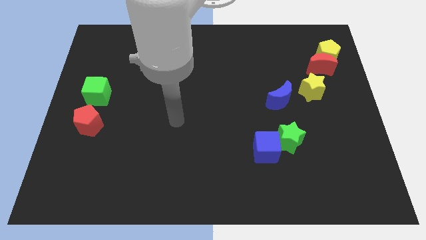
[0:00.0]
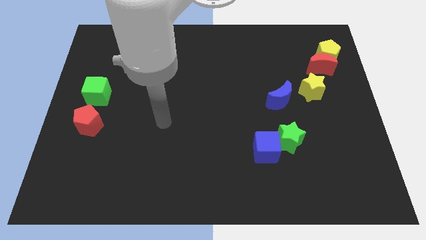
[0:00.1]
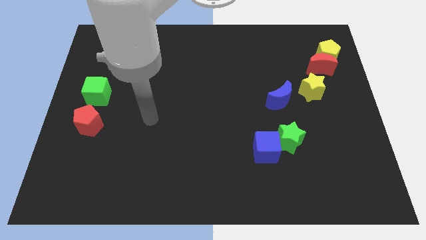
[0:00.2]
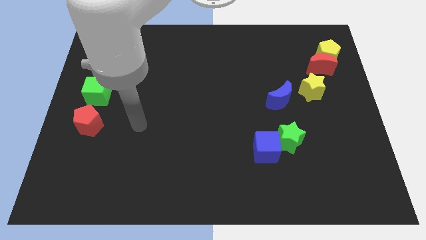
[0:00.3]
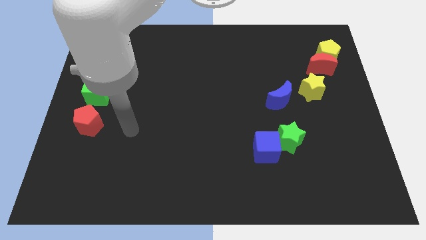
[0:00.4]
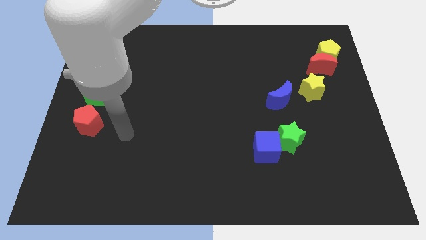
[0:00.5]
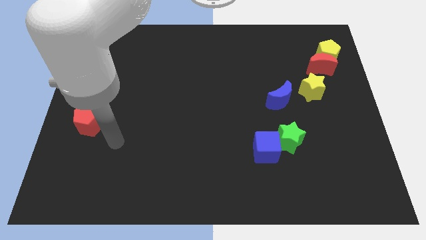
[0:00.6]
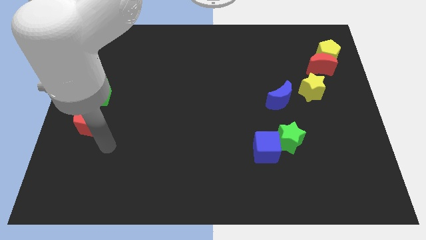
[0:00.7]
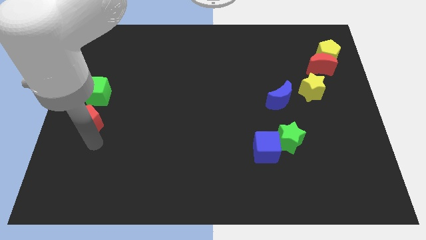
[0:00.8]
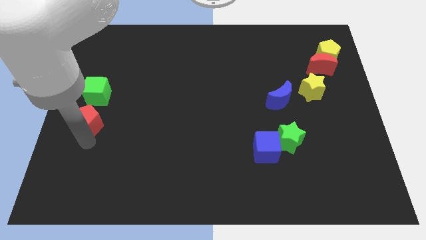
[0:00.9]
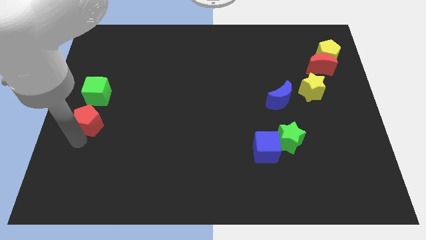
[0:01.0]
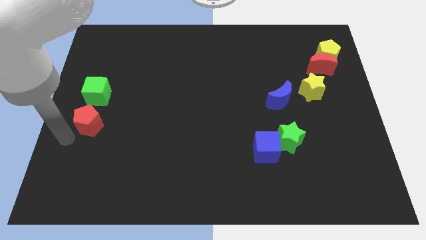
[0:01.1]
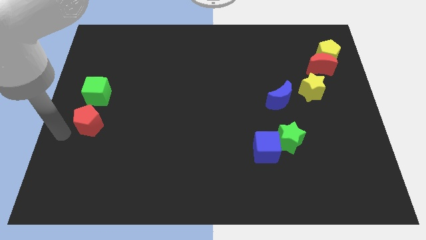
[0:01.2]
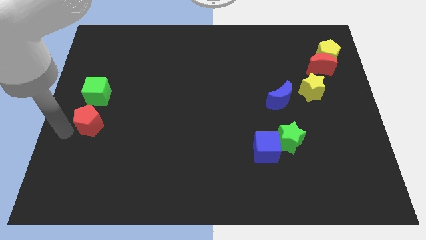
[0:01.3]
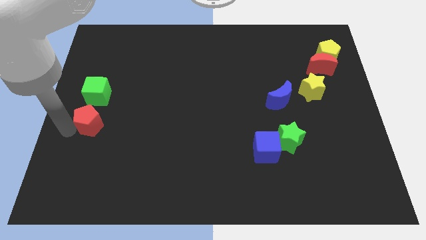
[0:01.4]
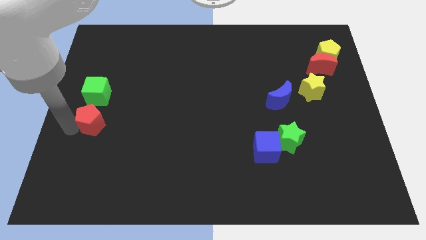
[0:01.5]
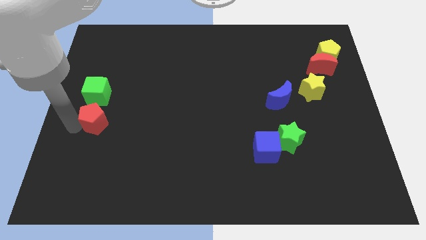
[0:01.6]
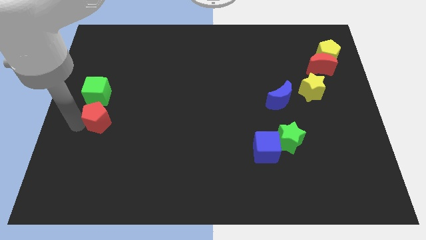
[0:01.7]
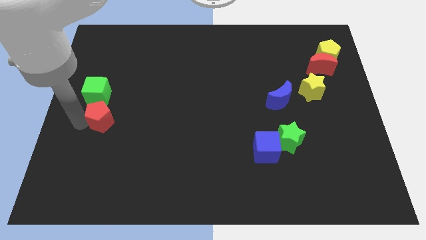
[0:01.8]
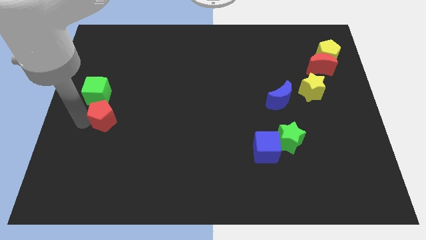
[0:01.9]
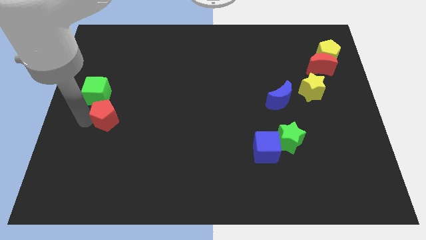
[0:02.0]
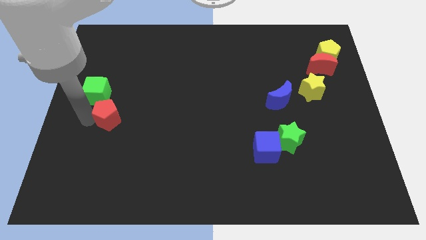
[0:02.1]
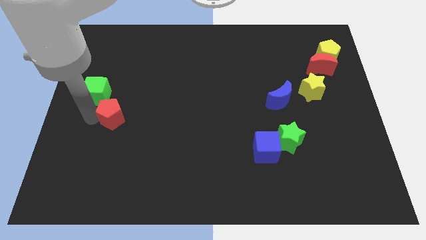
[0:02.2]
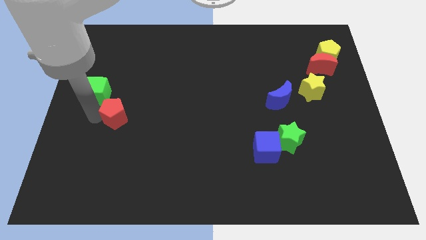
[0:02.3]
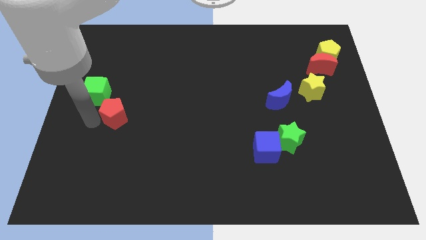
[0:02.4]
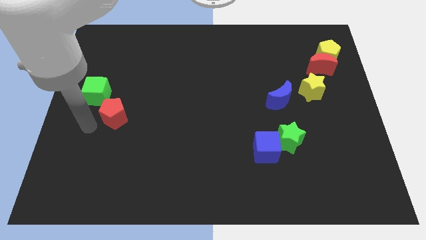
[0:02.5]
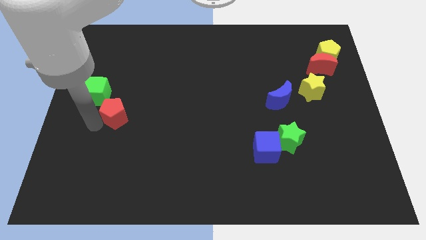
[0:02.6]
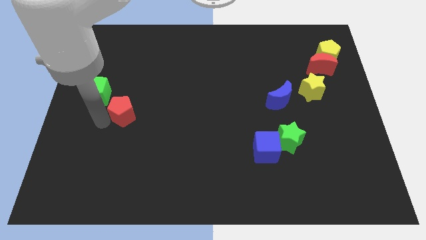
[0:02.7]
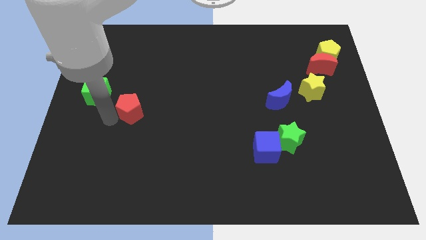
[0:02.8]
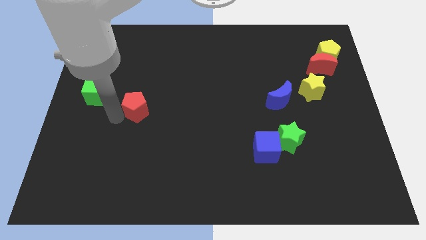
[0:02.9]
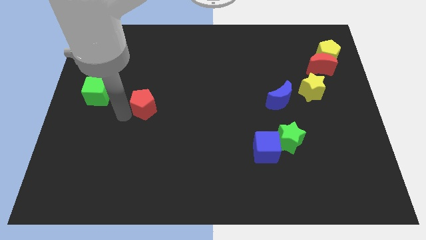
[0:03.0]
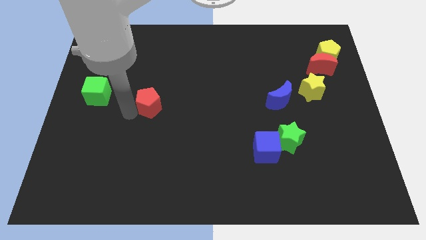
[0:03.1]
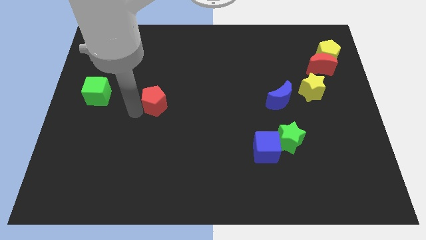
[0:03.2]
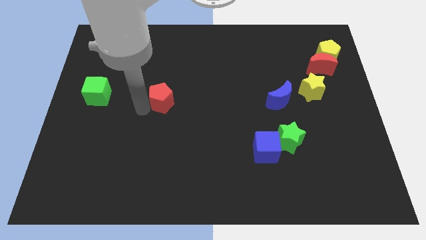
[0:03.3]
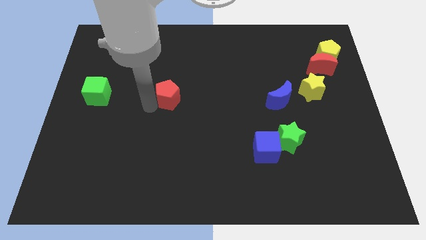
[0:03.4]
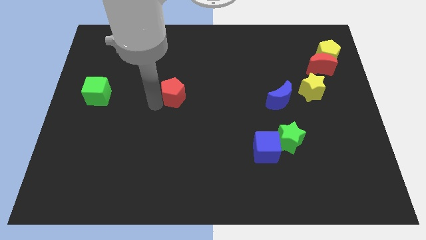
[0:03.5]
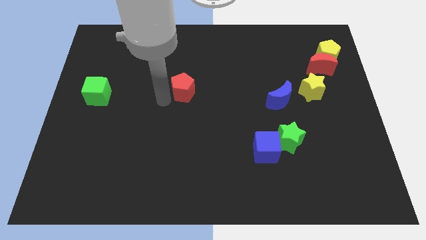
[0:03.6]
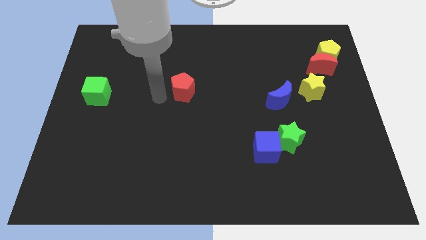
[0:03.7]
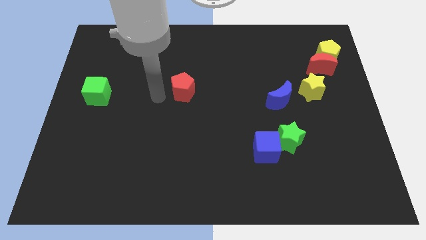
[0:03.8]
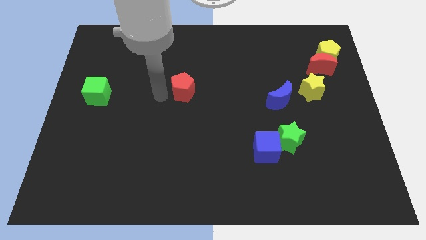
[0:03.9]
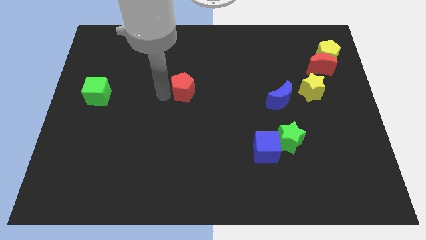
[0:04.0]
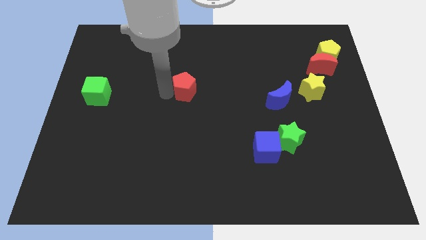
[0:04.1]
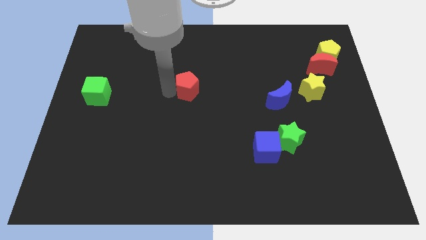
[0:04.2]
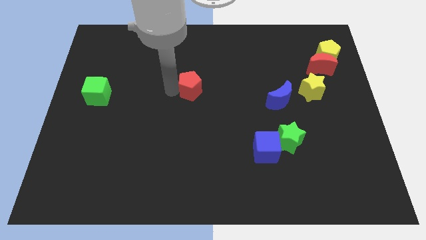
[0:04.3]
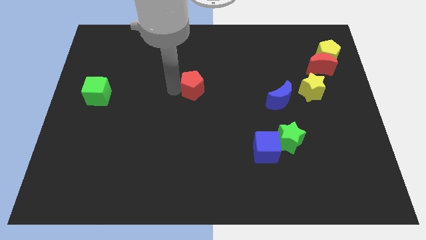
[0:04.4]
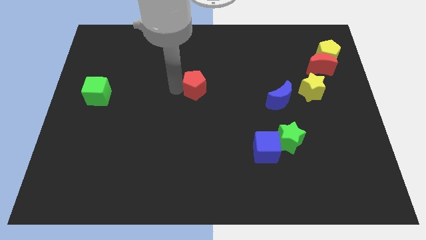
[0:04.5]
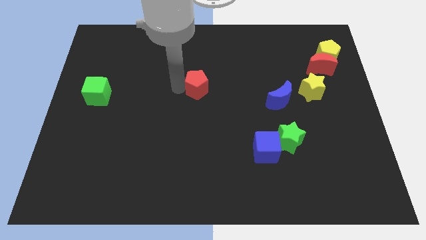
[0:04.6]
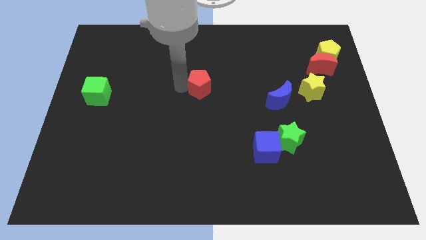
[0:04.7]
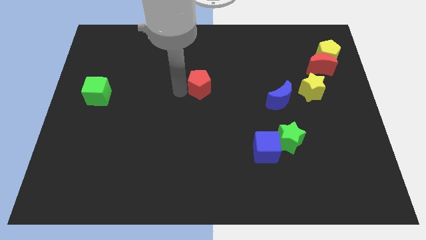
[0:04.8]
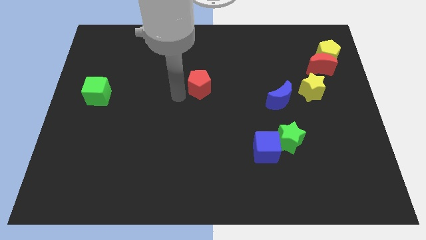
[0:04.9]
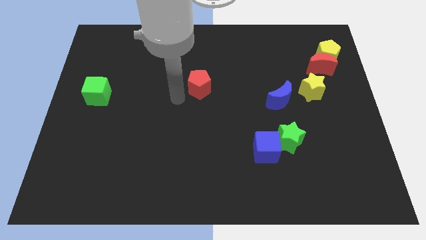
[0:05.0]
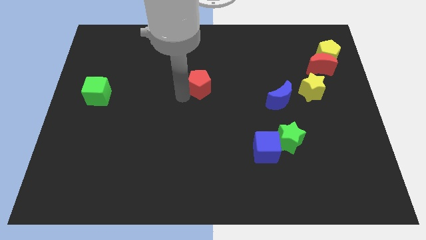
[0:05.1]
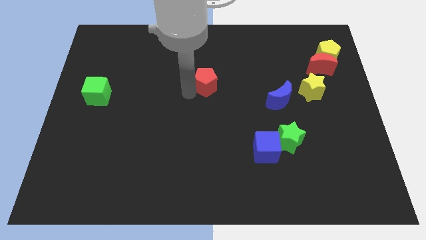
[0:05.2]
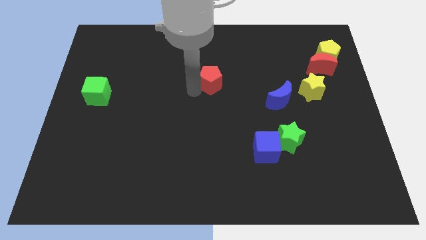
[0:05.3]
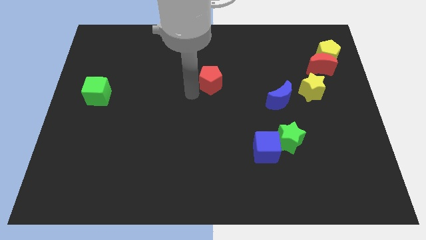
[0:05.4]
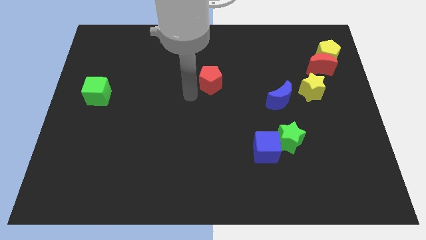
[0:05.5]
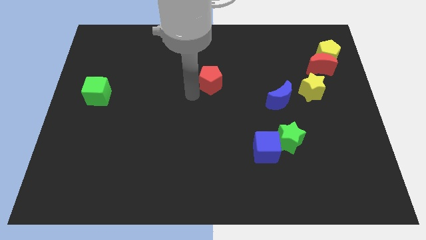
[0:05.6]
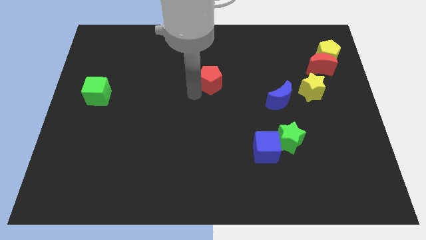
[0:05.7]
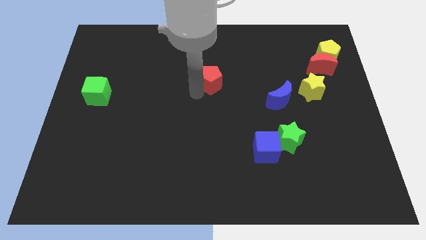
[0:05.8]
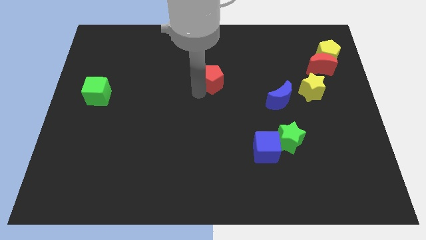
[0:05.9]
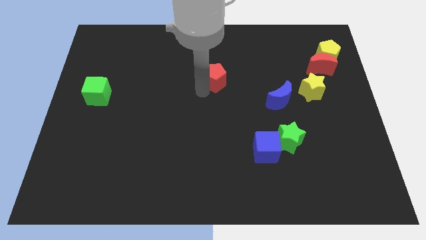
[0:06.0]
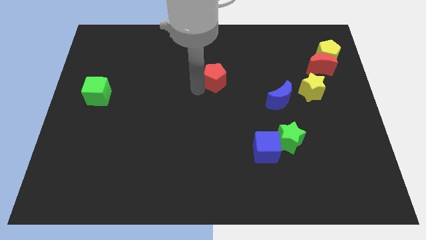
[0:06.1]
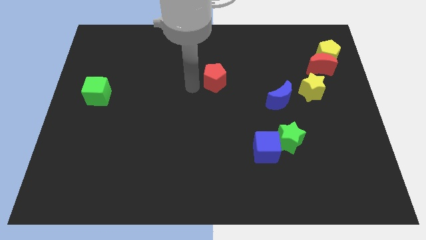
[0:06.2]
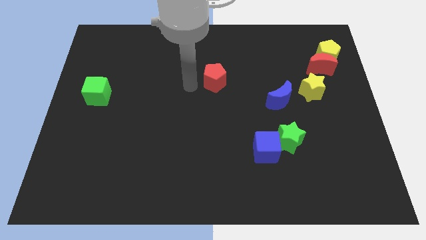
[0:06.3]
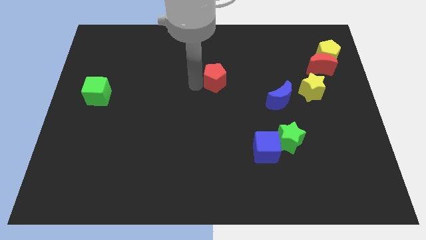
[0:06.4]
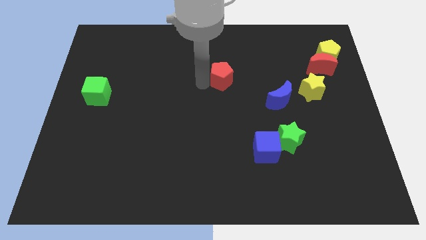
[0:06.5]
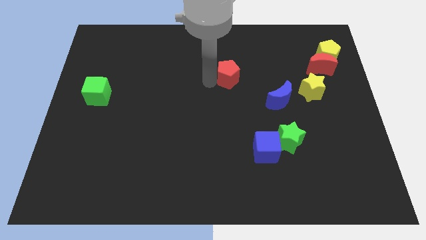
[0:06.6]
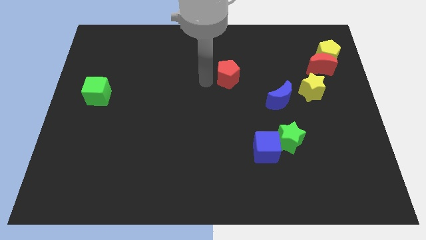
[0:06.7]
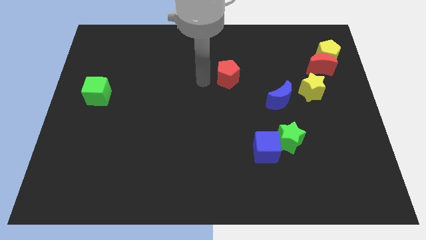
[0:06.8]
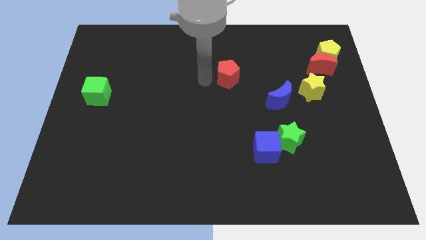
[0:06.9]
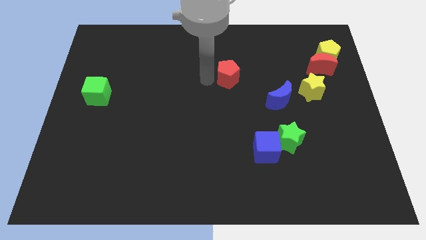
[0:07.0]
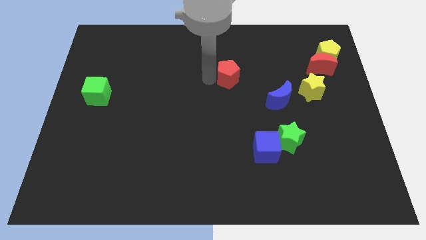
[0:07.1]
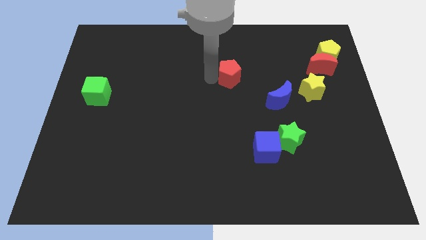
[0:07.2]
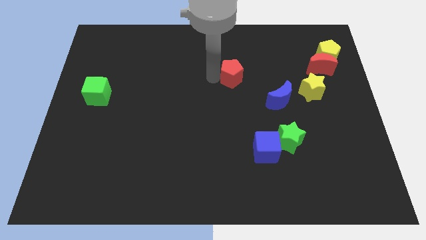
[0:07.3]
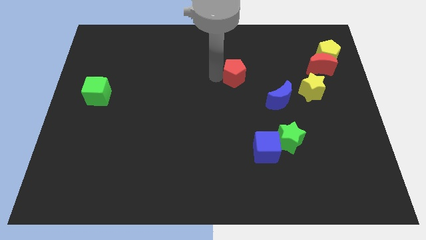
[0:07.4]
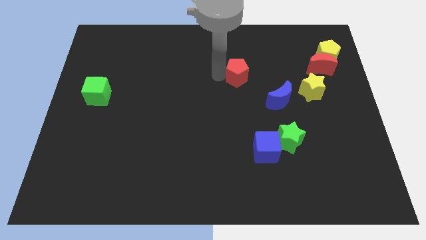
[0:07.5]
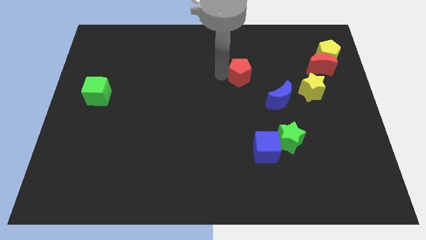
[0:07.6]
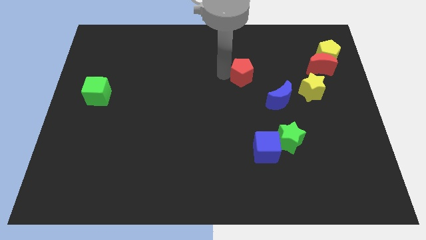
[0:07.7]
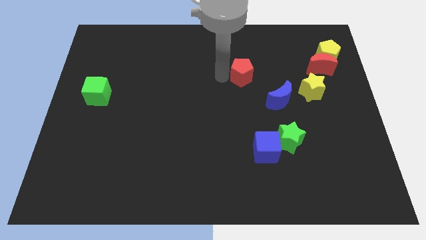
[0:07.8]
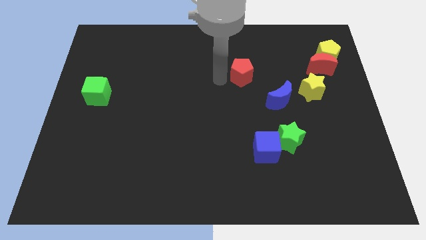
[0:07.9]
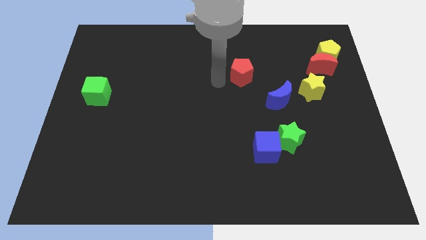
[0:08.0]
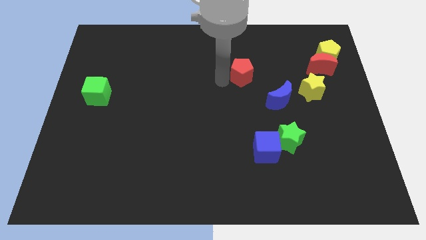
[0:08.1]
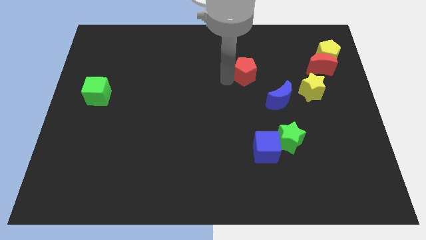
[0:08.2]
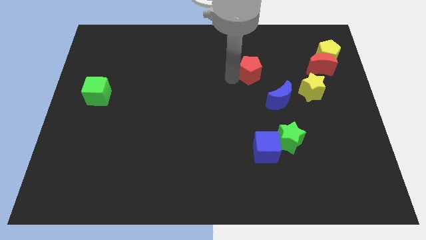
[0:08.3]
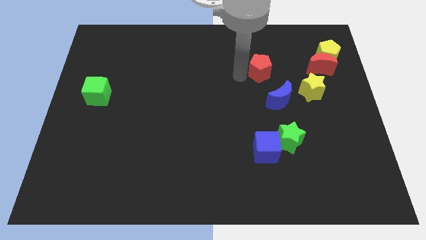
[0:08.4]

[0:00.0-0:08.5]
move the red pentagon just left of the red moon
